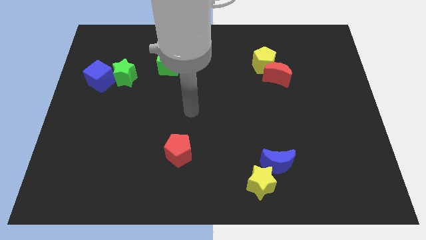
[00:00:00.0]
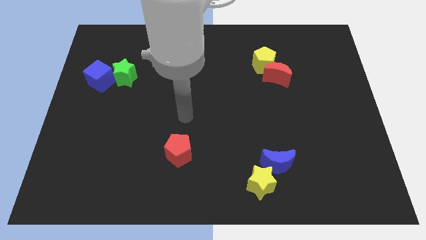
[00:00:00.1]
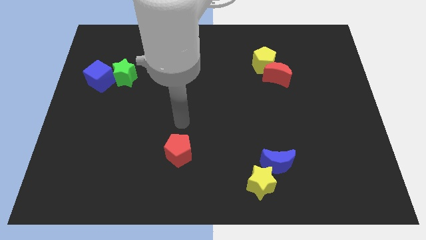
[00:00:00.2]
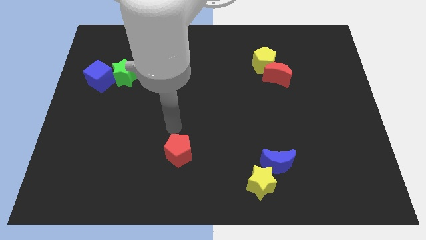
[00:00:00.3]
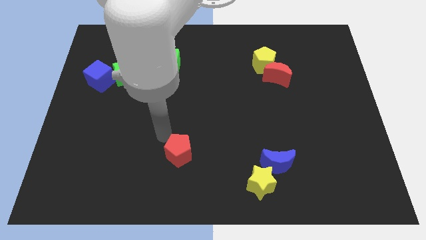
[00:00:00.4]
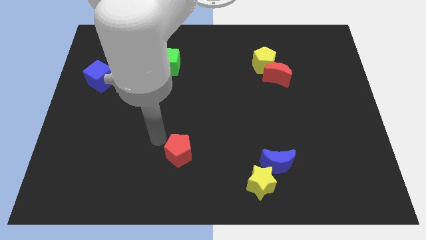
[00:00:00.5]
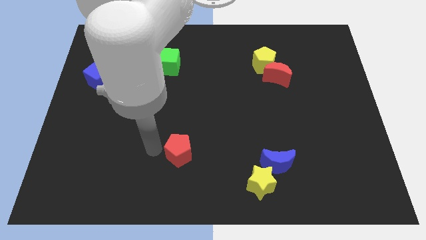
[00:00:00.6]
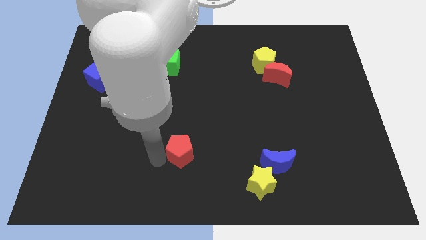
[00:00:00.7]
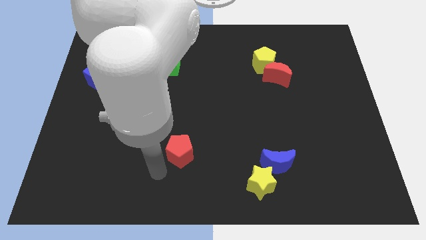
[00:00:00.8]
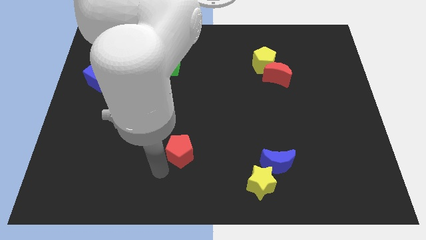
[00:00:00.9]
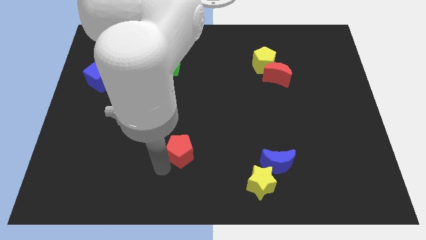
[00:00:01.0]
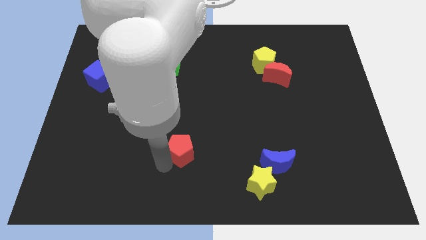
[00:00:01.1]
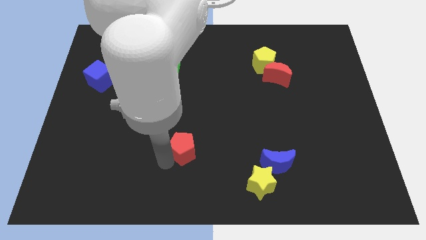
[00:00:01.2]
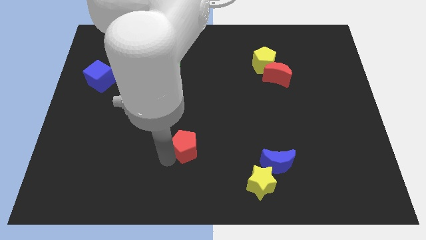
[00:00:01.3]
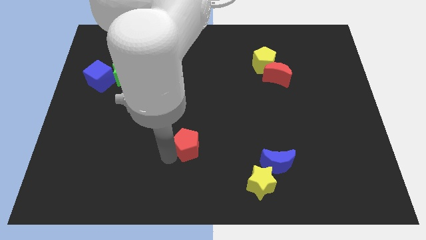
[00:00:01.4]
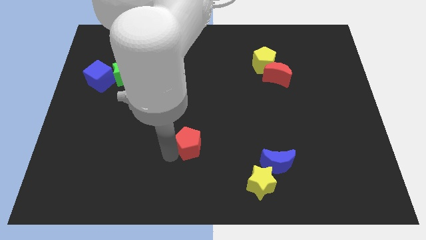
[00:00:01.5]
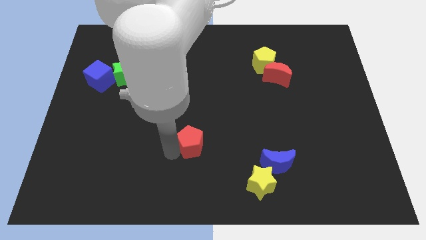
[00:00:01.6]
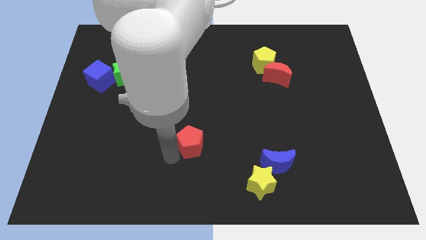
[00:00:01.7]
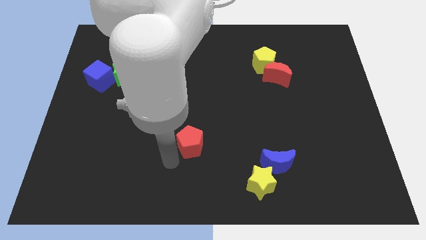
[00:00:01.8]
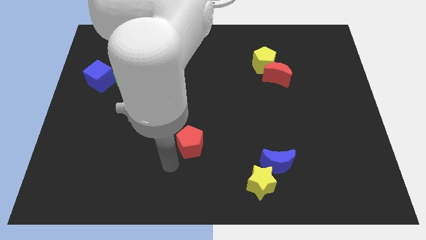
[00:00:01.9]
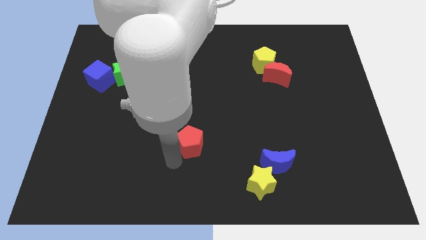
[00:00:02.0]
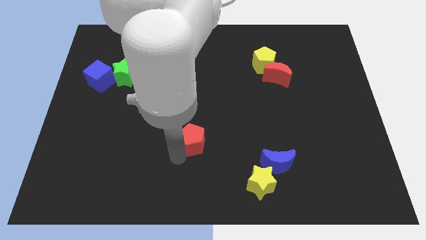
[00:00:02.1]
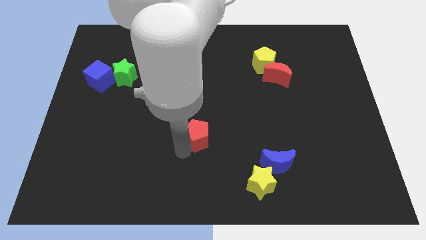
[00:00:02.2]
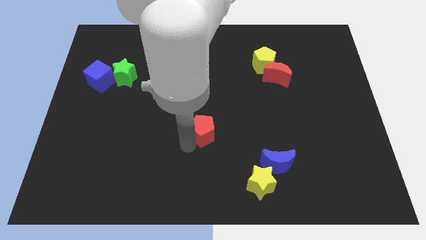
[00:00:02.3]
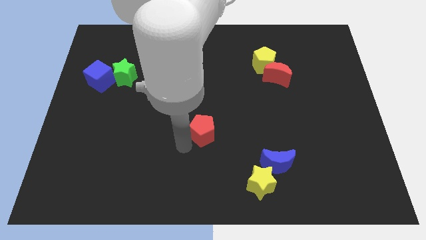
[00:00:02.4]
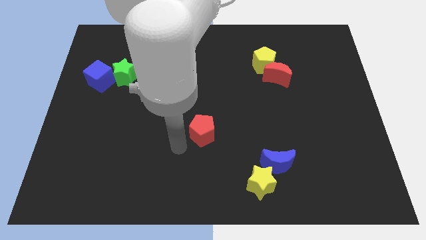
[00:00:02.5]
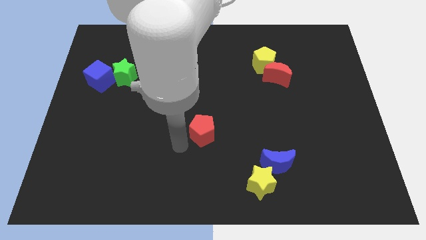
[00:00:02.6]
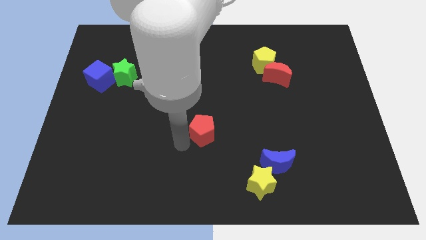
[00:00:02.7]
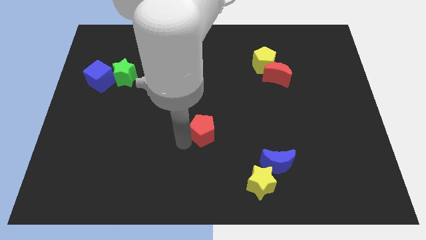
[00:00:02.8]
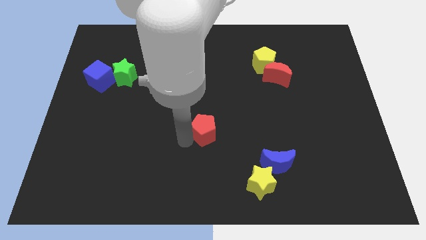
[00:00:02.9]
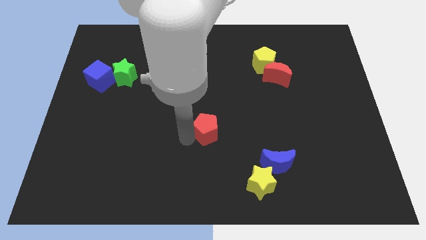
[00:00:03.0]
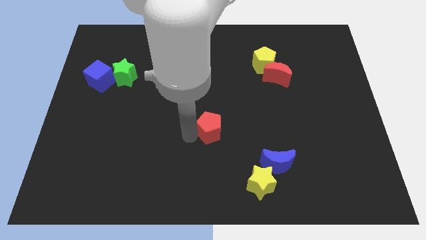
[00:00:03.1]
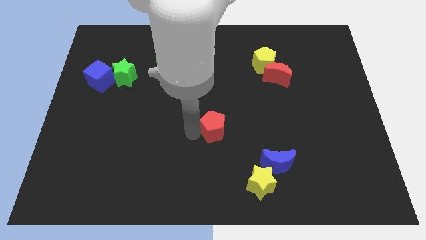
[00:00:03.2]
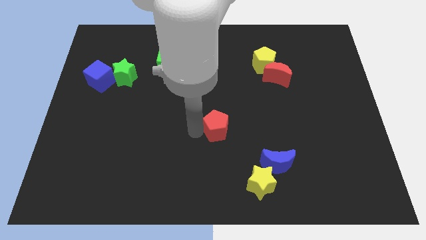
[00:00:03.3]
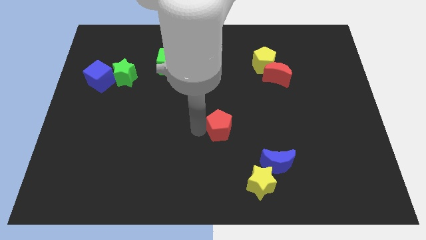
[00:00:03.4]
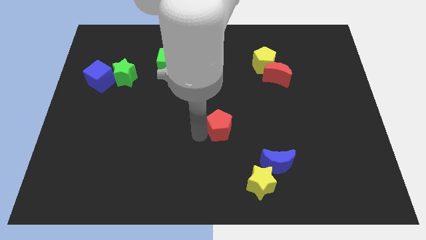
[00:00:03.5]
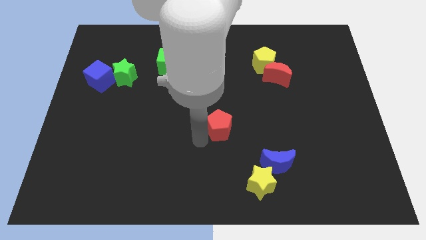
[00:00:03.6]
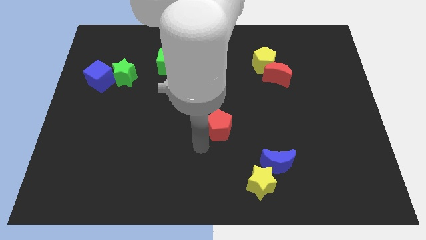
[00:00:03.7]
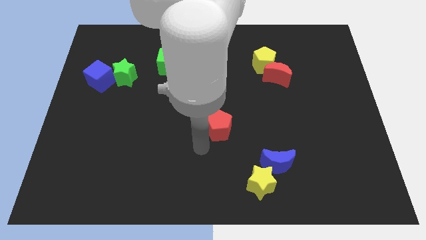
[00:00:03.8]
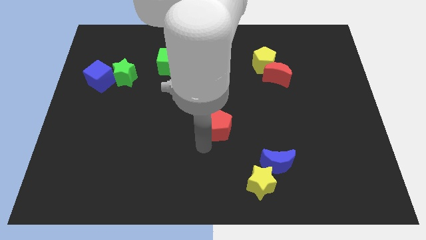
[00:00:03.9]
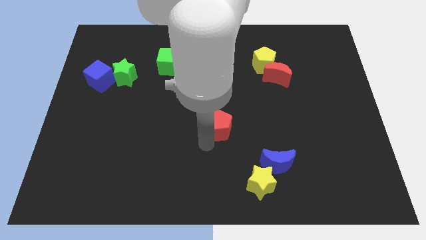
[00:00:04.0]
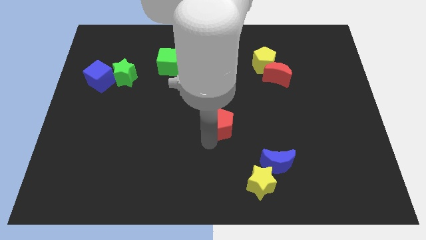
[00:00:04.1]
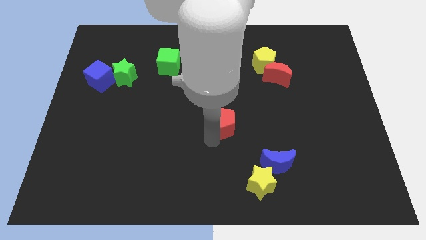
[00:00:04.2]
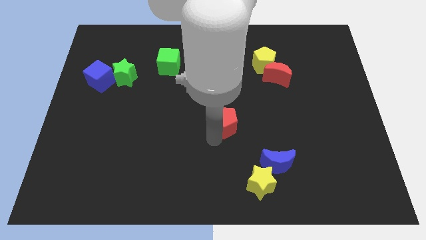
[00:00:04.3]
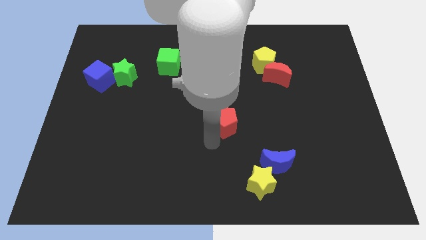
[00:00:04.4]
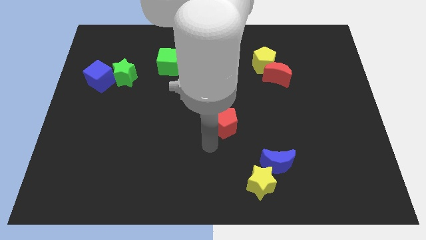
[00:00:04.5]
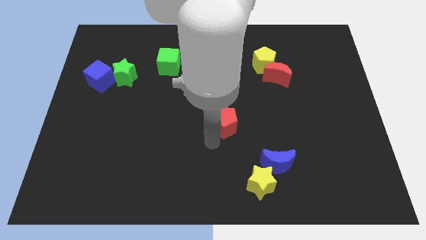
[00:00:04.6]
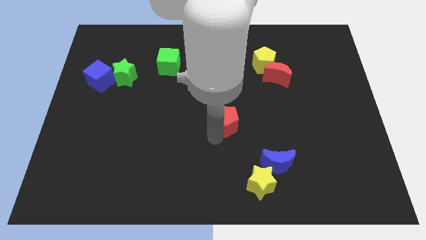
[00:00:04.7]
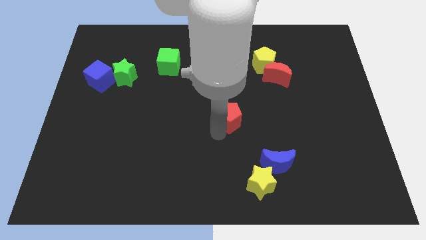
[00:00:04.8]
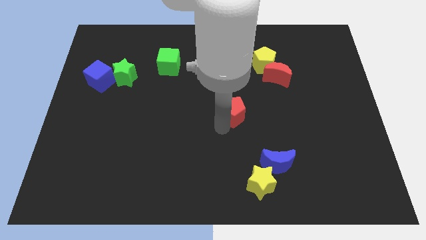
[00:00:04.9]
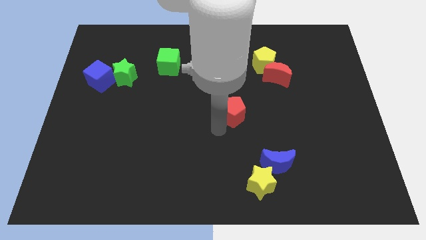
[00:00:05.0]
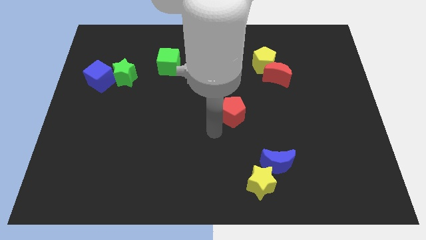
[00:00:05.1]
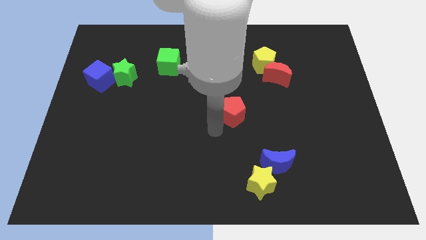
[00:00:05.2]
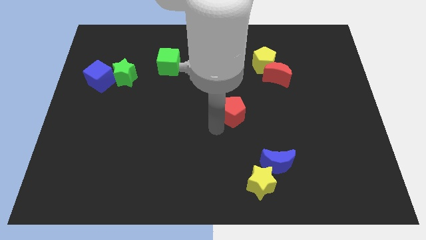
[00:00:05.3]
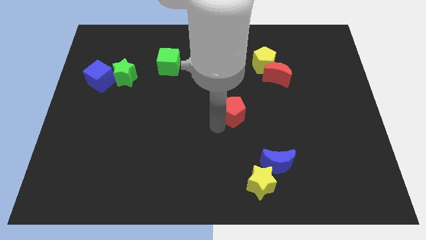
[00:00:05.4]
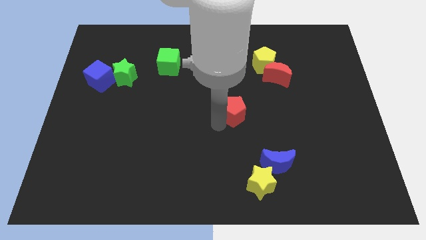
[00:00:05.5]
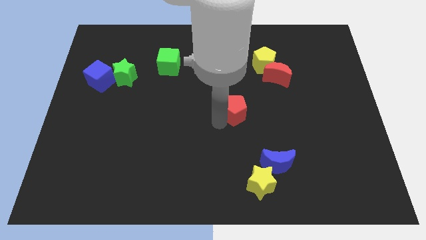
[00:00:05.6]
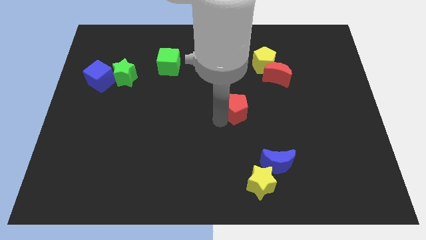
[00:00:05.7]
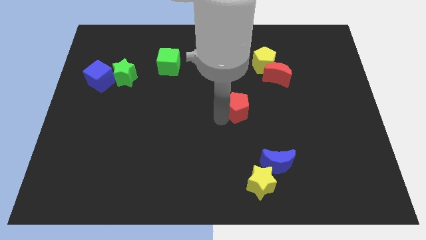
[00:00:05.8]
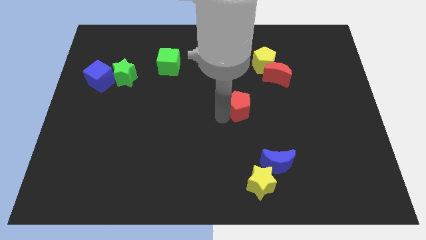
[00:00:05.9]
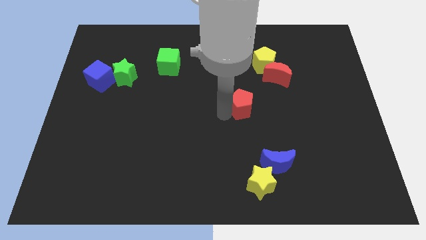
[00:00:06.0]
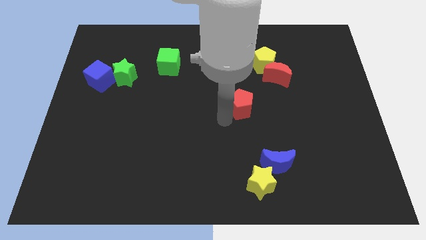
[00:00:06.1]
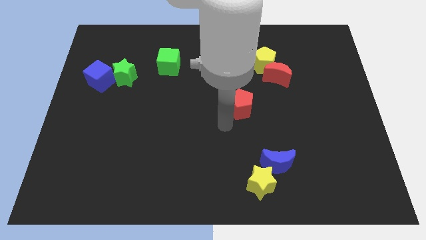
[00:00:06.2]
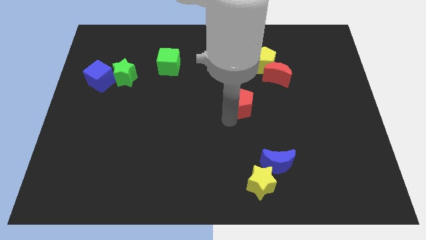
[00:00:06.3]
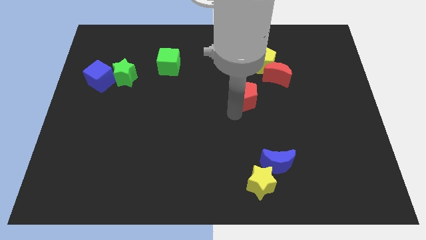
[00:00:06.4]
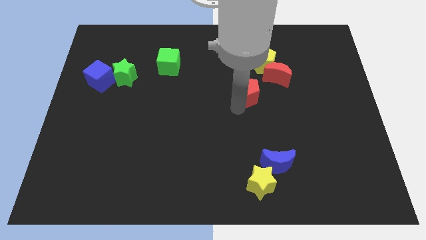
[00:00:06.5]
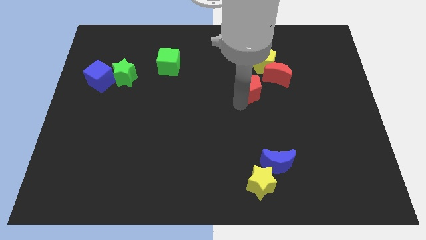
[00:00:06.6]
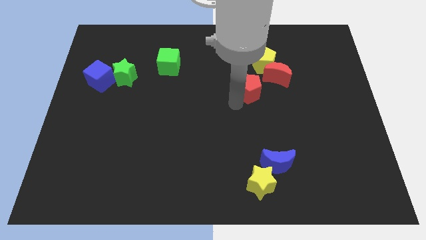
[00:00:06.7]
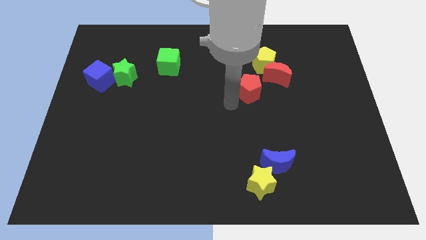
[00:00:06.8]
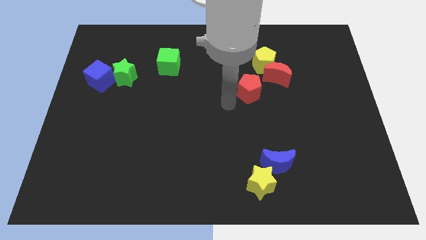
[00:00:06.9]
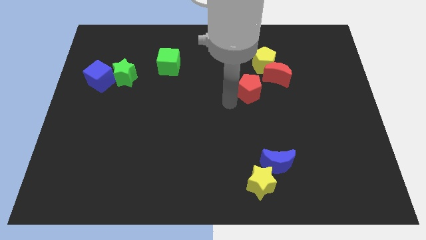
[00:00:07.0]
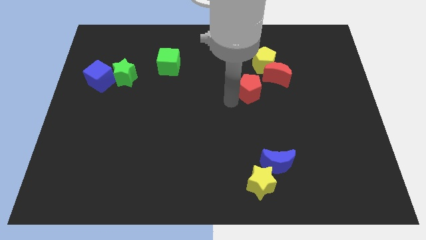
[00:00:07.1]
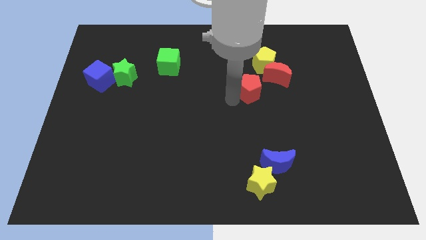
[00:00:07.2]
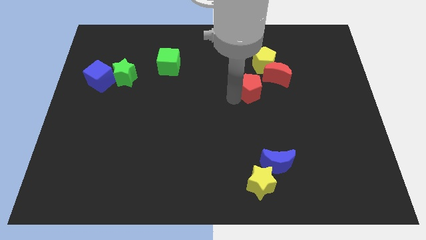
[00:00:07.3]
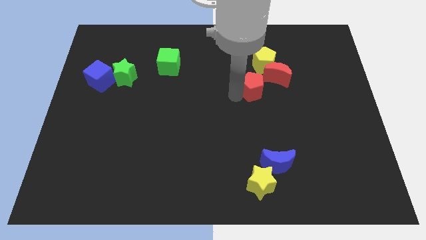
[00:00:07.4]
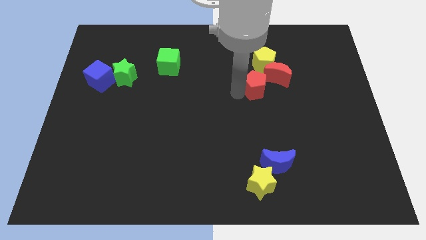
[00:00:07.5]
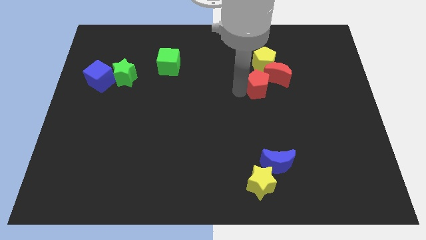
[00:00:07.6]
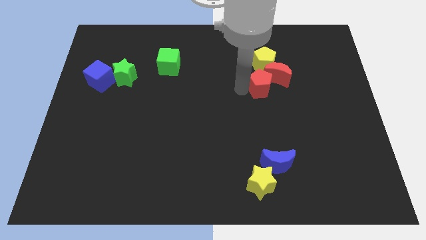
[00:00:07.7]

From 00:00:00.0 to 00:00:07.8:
put the red pentagon close to the red moon
